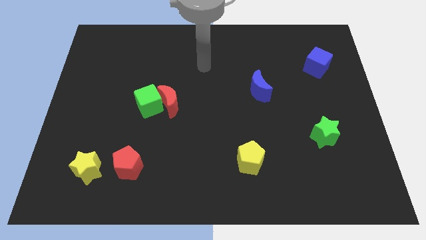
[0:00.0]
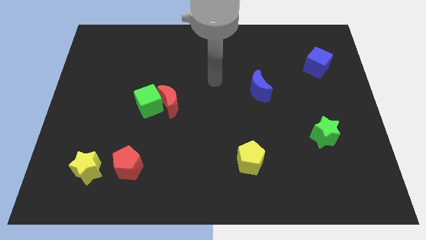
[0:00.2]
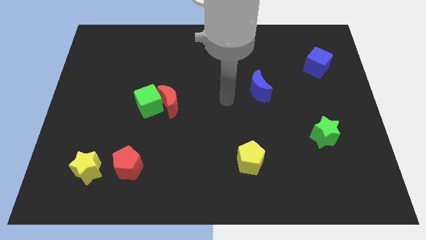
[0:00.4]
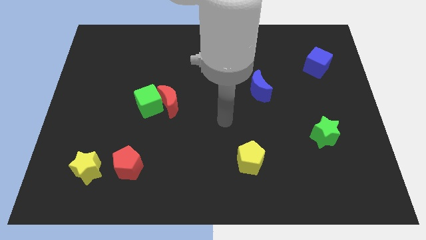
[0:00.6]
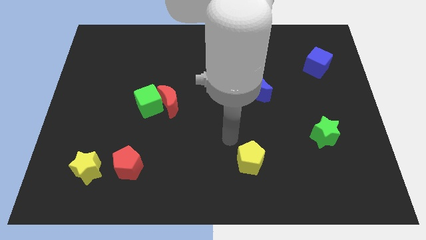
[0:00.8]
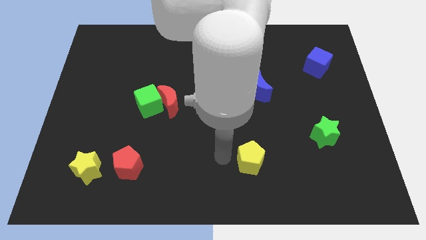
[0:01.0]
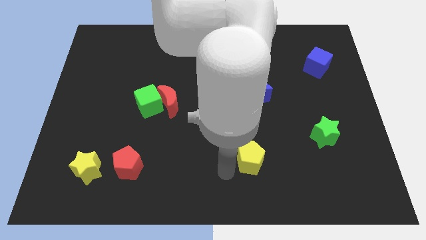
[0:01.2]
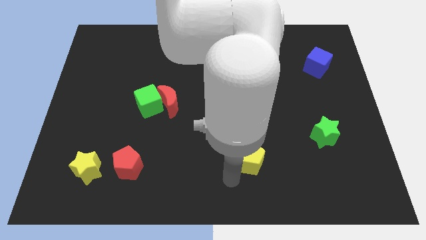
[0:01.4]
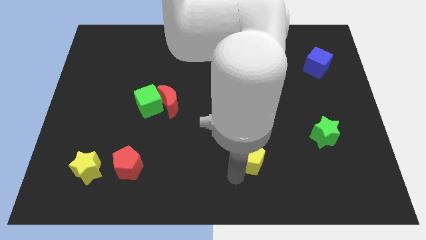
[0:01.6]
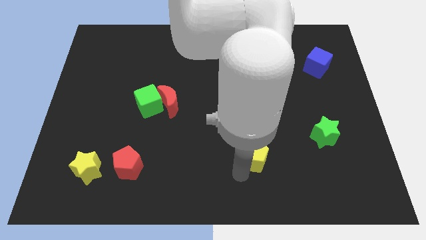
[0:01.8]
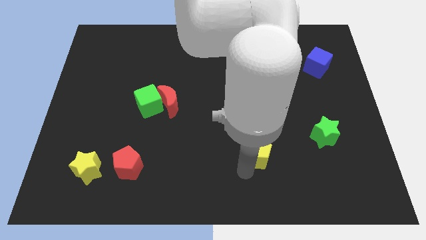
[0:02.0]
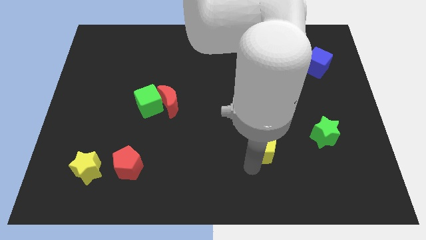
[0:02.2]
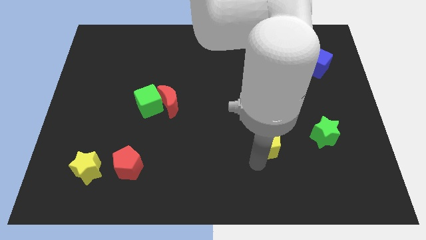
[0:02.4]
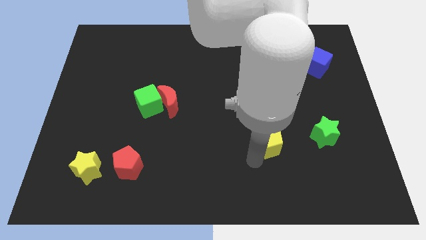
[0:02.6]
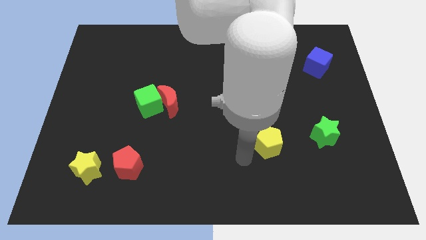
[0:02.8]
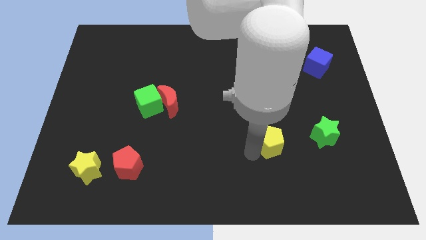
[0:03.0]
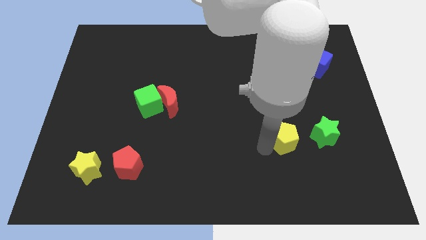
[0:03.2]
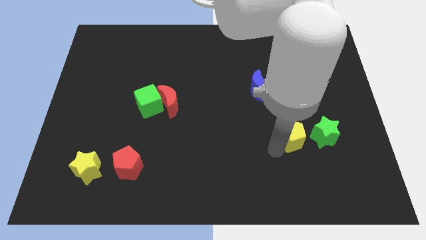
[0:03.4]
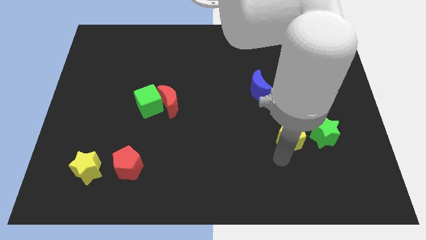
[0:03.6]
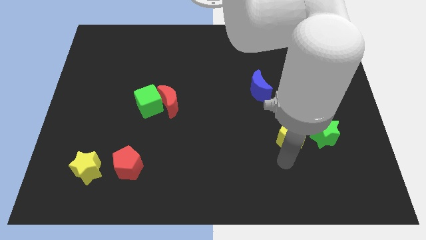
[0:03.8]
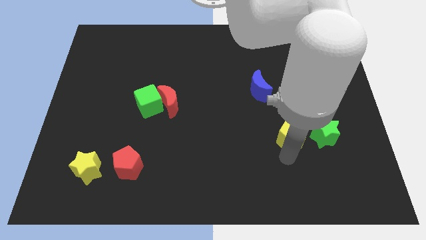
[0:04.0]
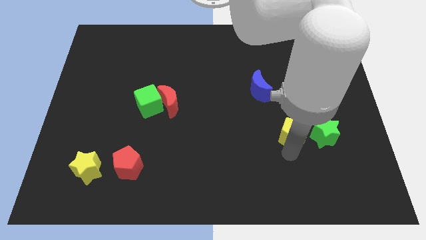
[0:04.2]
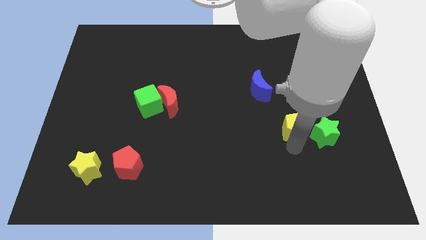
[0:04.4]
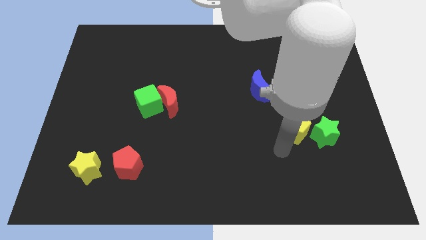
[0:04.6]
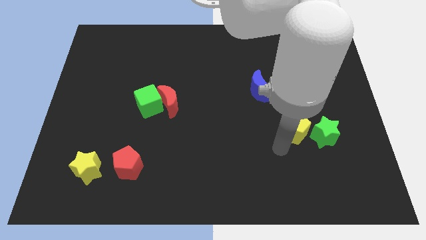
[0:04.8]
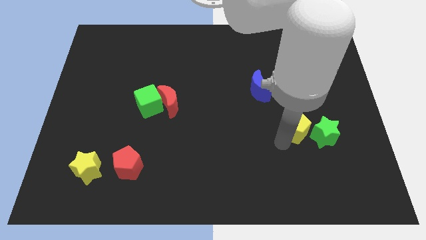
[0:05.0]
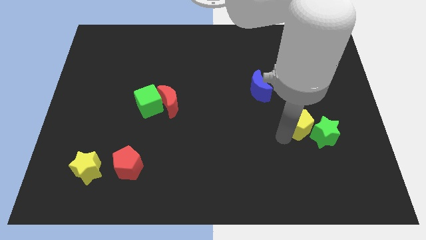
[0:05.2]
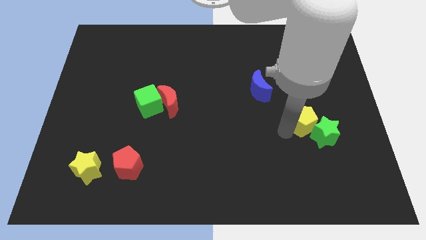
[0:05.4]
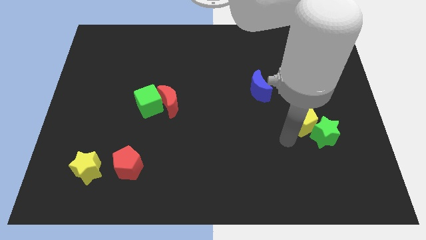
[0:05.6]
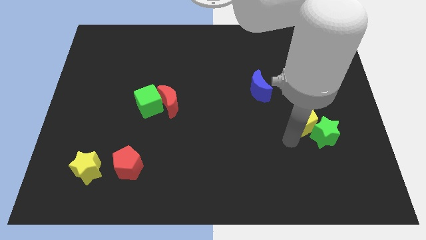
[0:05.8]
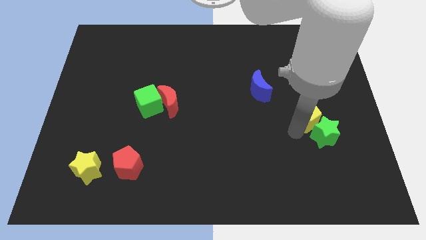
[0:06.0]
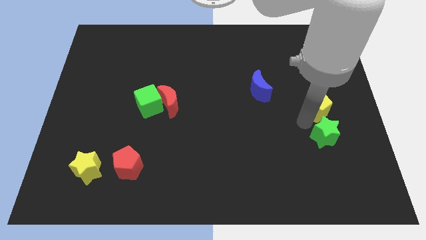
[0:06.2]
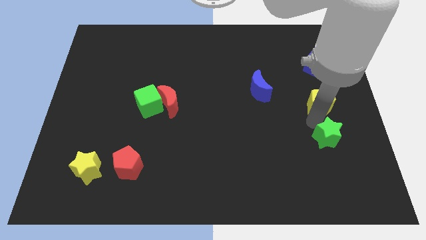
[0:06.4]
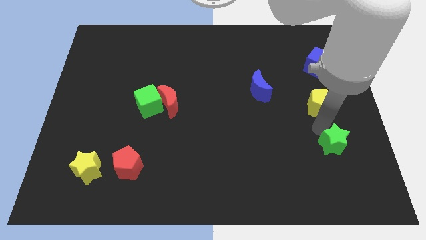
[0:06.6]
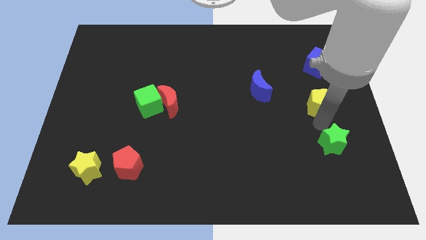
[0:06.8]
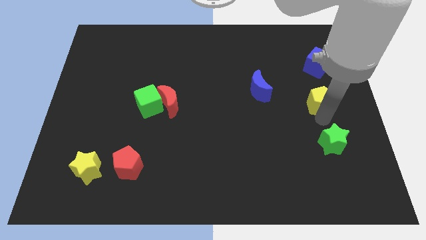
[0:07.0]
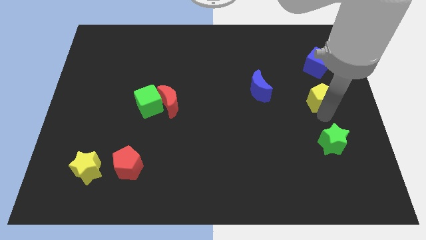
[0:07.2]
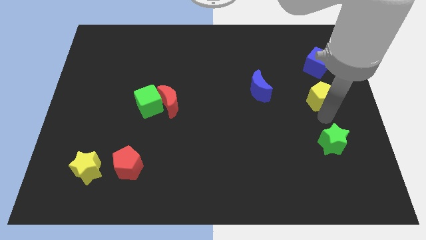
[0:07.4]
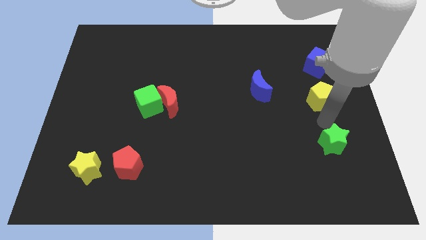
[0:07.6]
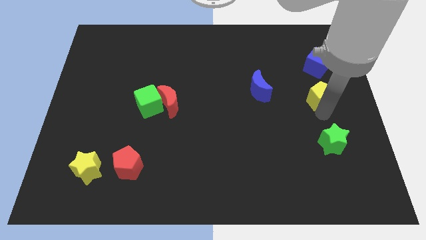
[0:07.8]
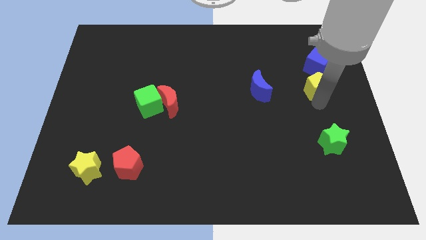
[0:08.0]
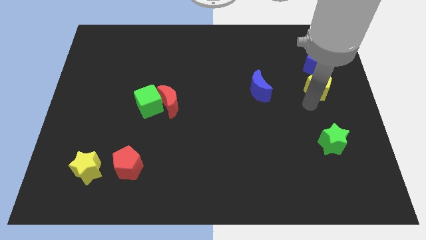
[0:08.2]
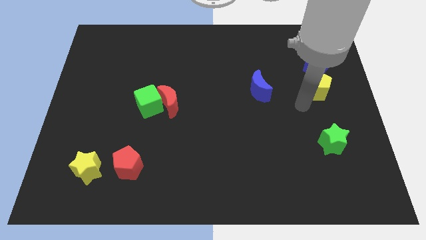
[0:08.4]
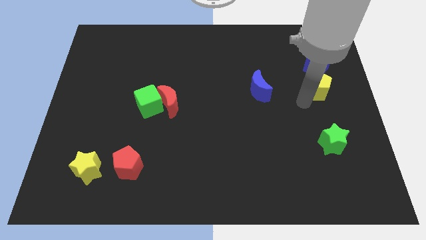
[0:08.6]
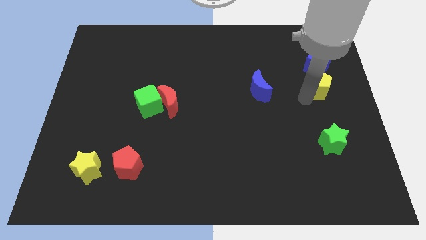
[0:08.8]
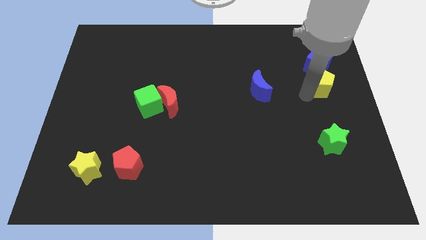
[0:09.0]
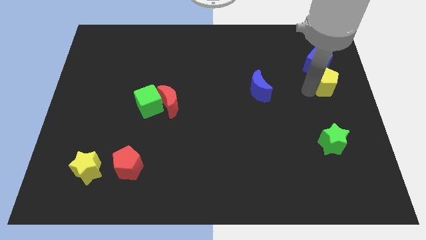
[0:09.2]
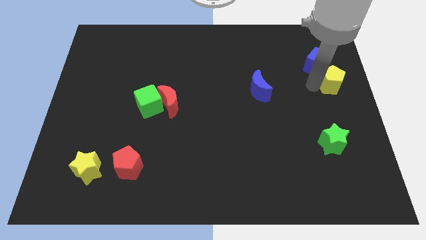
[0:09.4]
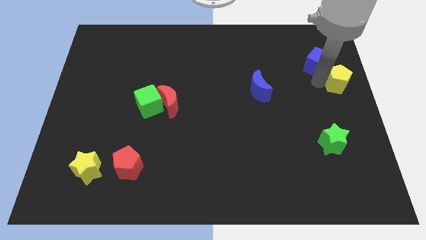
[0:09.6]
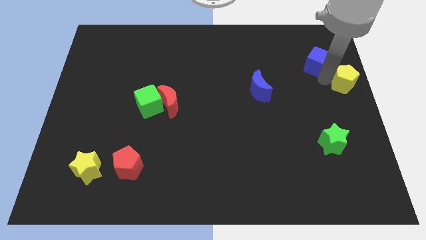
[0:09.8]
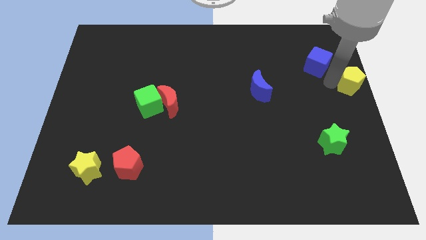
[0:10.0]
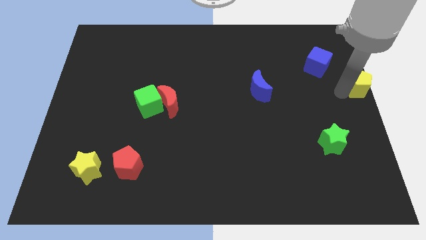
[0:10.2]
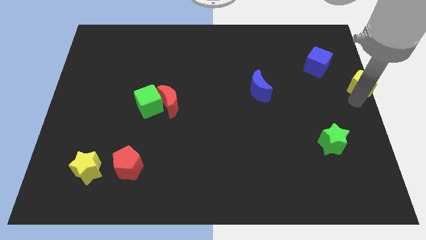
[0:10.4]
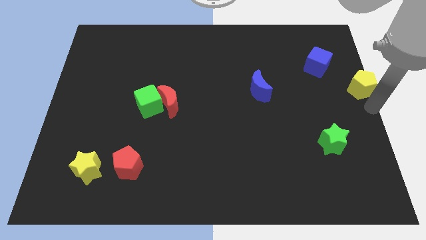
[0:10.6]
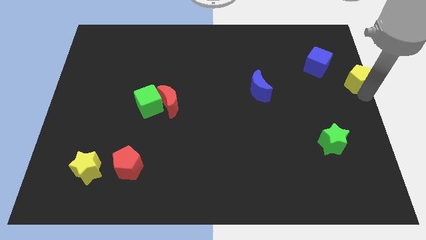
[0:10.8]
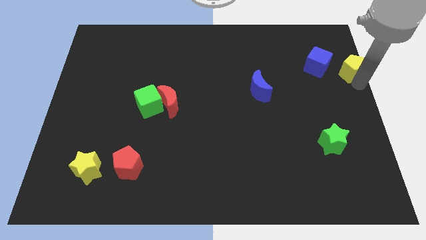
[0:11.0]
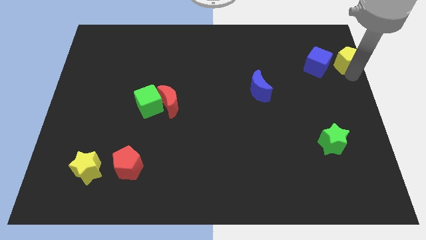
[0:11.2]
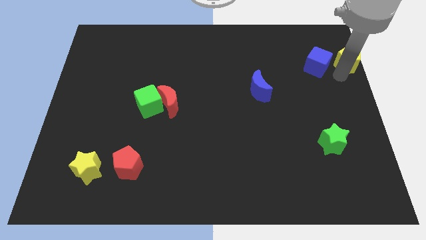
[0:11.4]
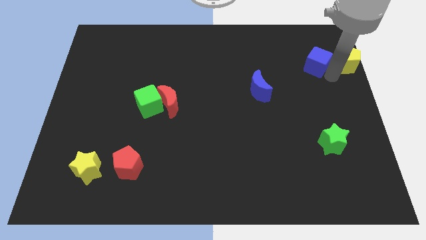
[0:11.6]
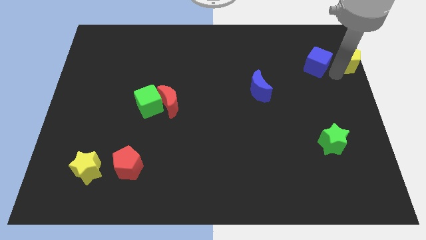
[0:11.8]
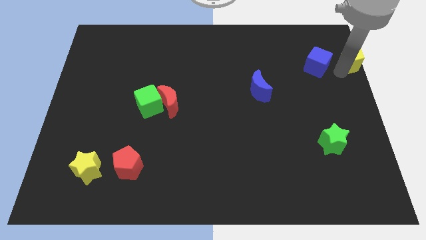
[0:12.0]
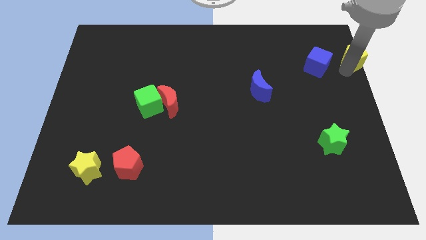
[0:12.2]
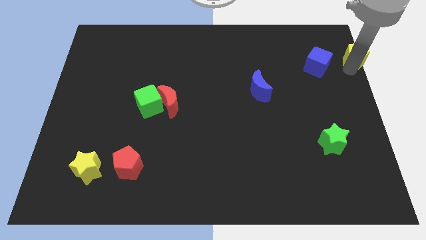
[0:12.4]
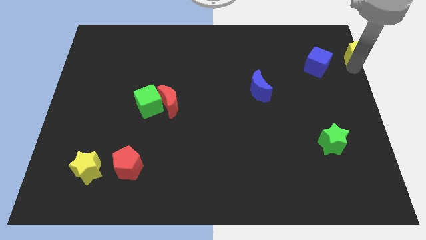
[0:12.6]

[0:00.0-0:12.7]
slide the yellow pentagon to the upper right corner

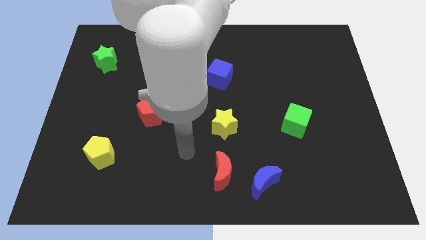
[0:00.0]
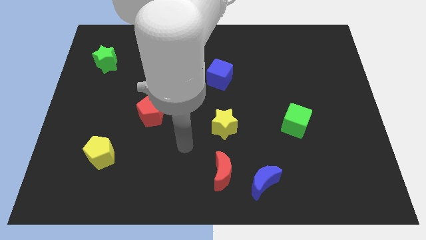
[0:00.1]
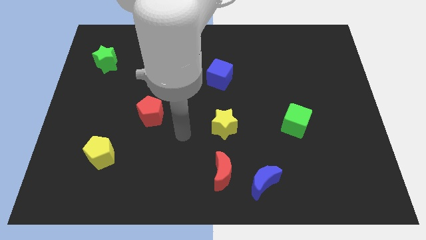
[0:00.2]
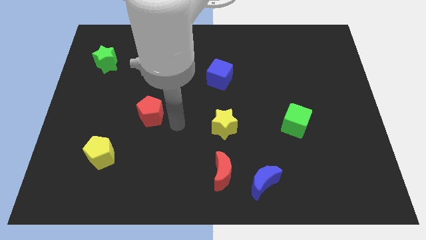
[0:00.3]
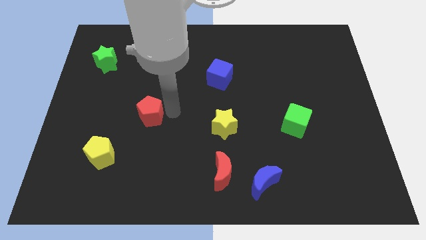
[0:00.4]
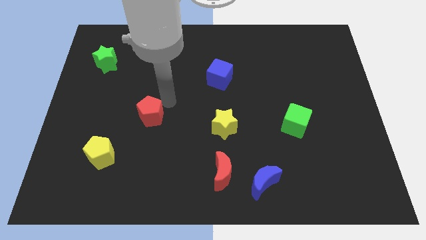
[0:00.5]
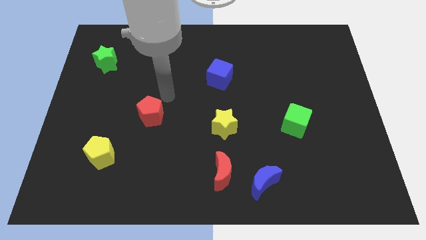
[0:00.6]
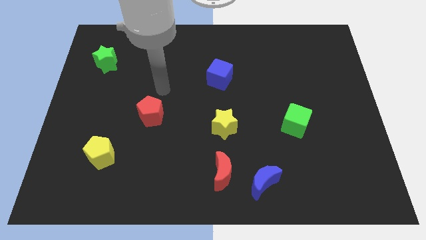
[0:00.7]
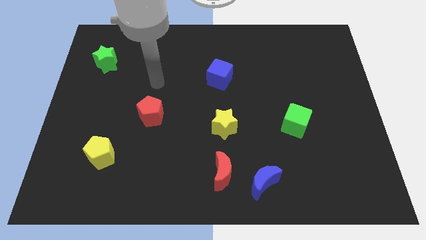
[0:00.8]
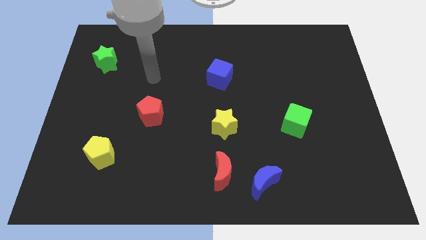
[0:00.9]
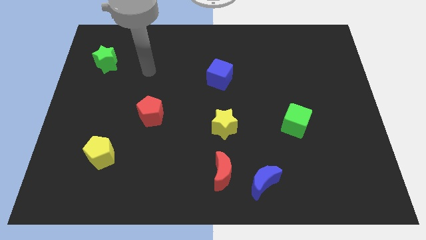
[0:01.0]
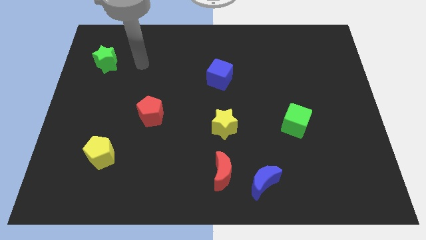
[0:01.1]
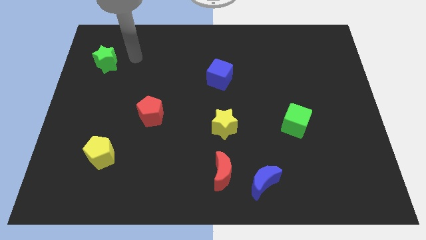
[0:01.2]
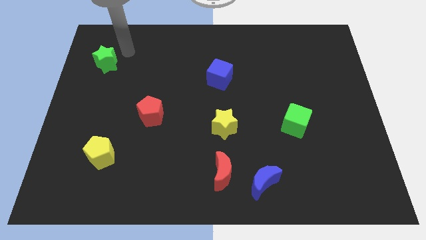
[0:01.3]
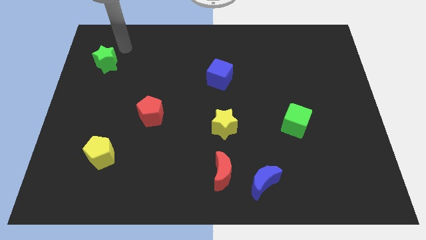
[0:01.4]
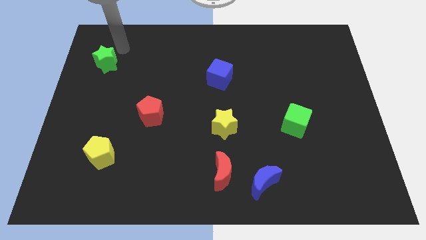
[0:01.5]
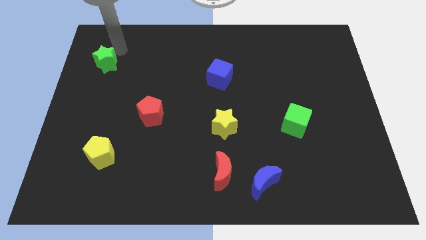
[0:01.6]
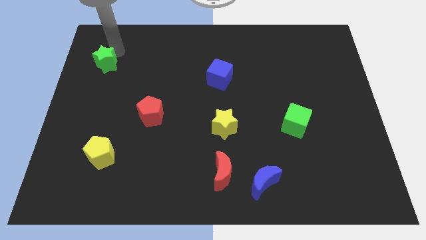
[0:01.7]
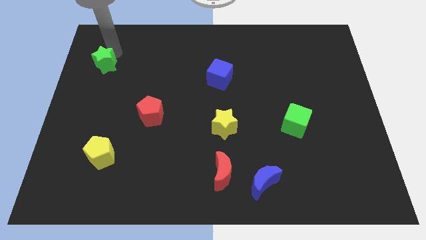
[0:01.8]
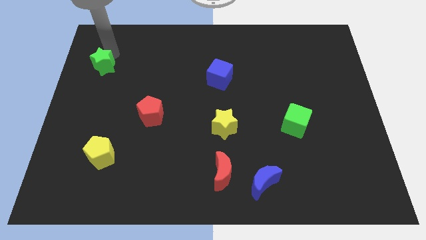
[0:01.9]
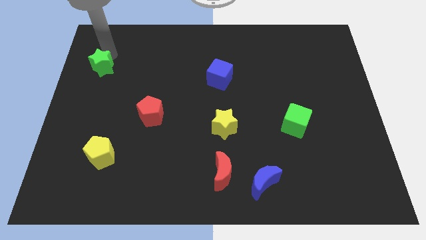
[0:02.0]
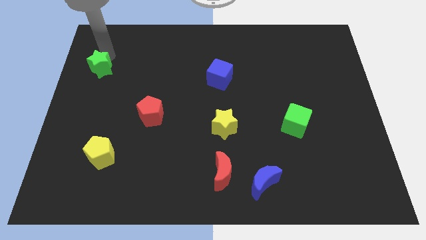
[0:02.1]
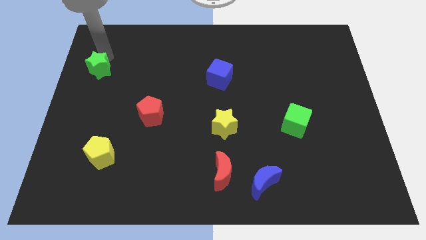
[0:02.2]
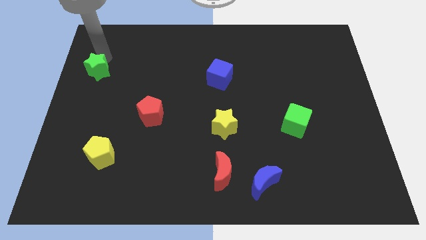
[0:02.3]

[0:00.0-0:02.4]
slide the green star to the center left
